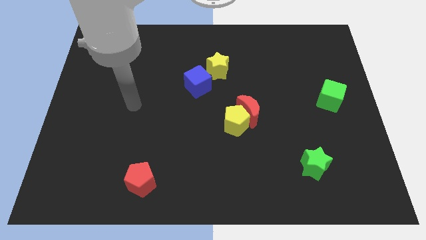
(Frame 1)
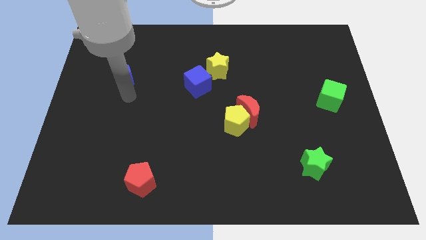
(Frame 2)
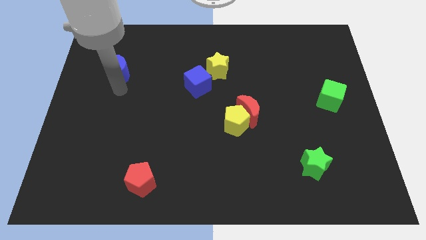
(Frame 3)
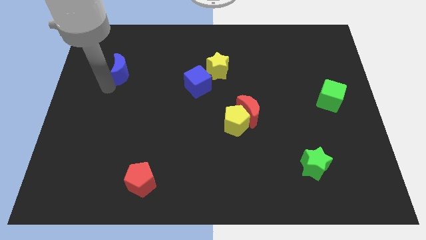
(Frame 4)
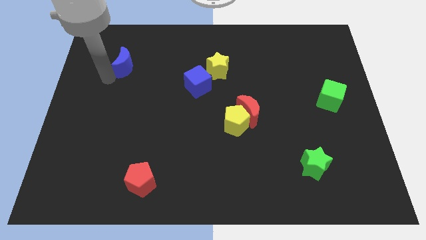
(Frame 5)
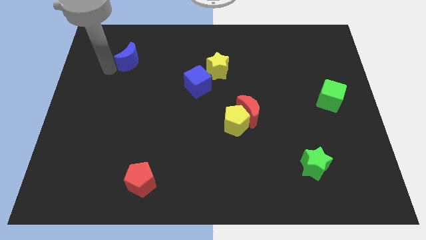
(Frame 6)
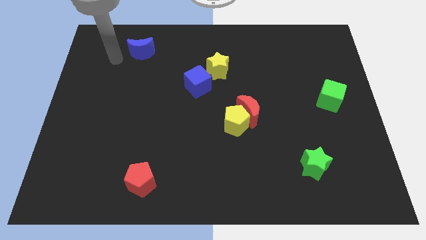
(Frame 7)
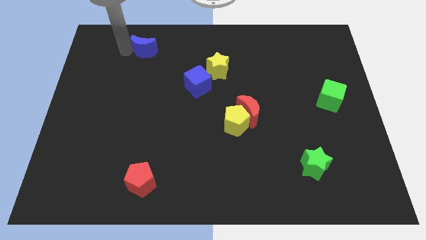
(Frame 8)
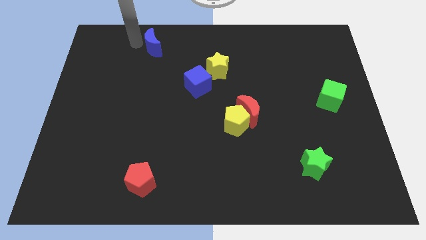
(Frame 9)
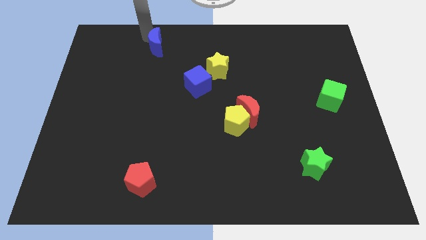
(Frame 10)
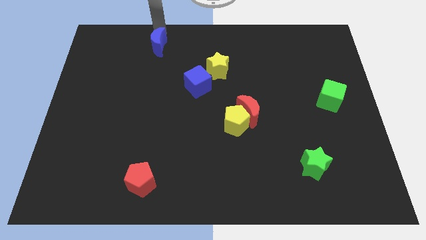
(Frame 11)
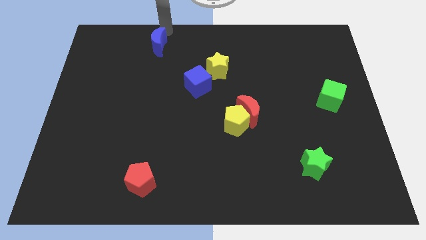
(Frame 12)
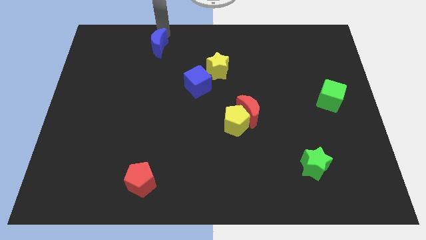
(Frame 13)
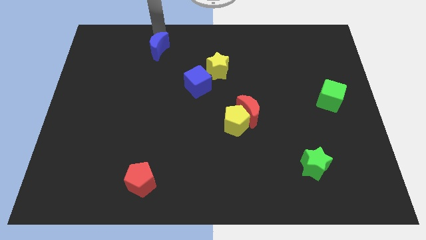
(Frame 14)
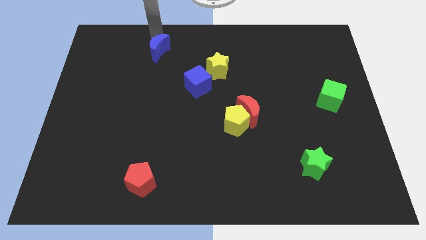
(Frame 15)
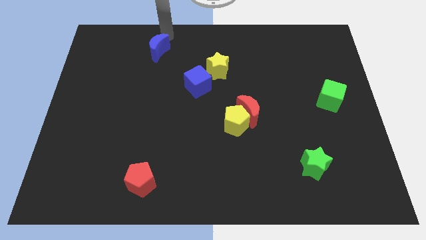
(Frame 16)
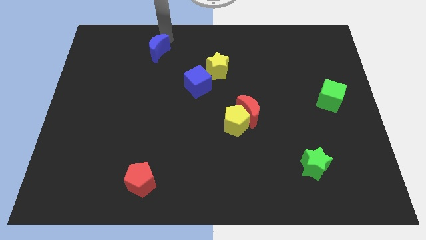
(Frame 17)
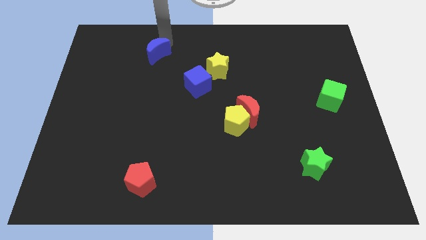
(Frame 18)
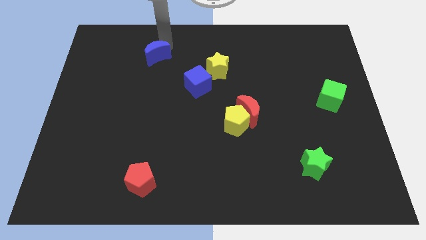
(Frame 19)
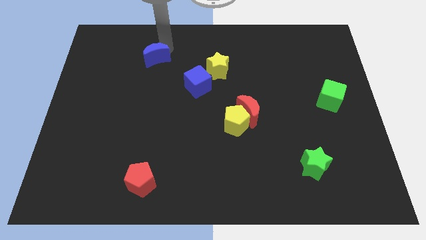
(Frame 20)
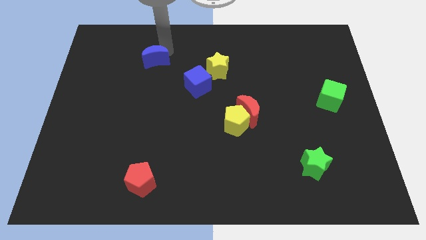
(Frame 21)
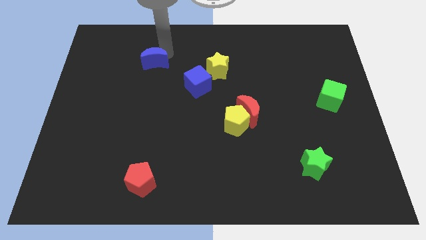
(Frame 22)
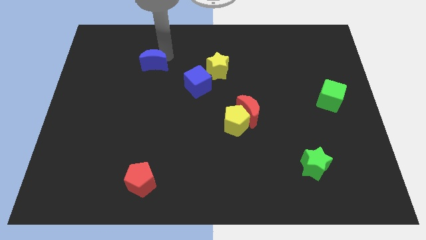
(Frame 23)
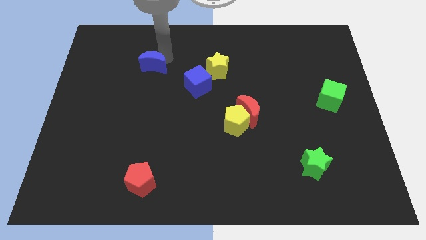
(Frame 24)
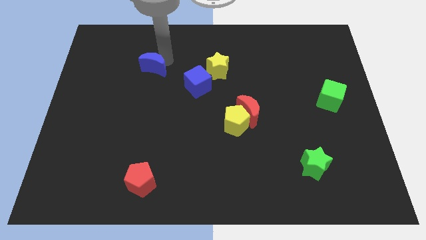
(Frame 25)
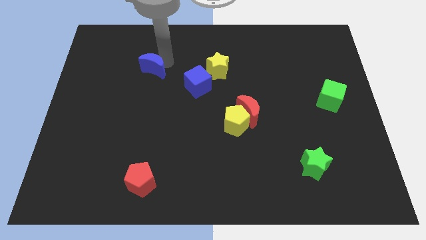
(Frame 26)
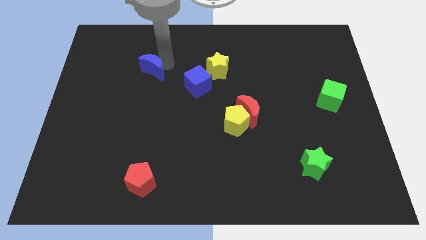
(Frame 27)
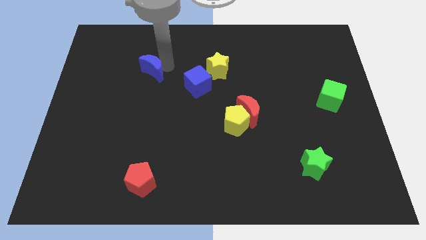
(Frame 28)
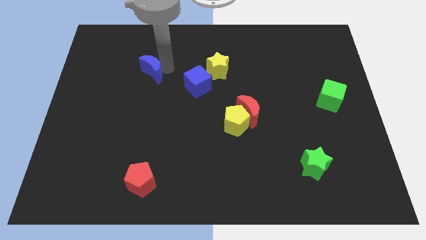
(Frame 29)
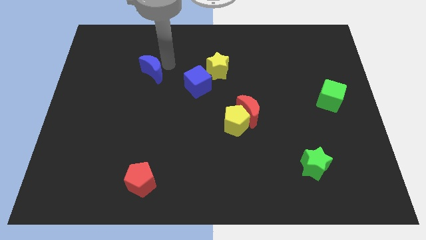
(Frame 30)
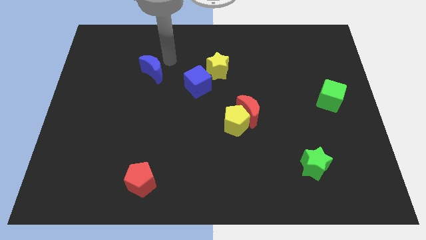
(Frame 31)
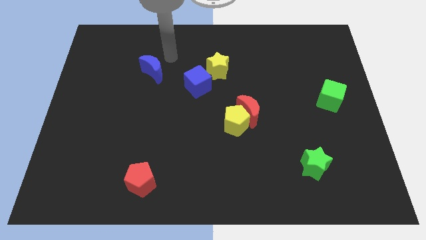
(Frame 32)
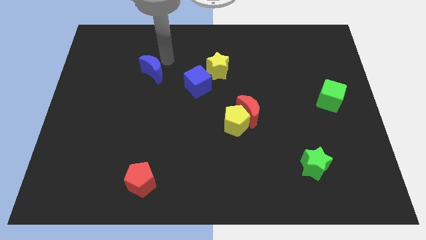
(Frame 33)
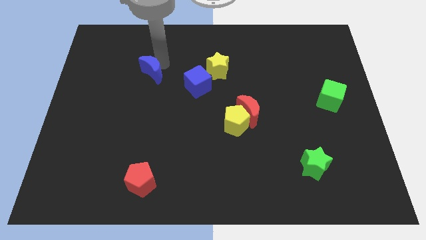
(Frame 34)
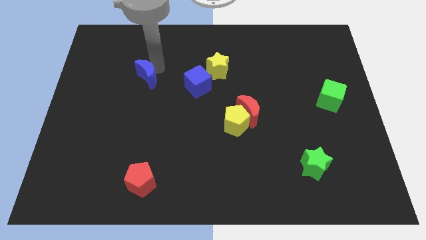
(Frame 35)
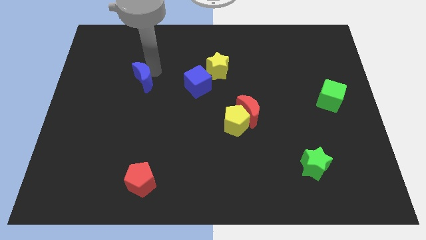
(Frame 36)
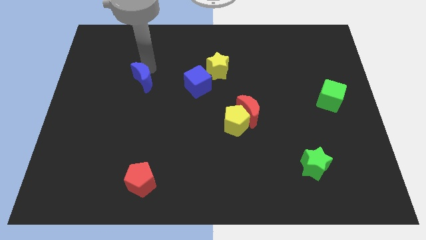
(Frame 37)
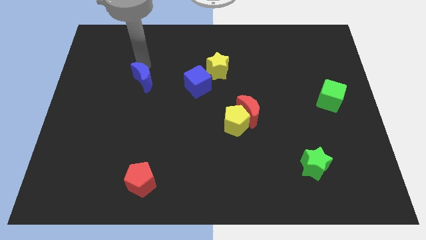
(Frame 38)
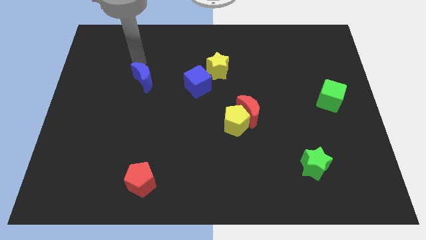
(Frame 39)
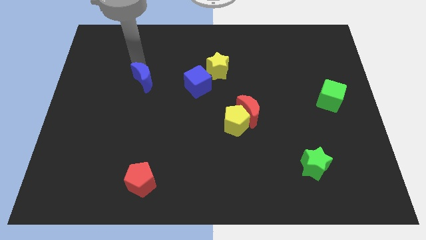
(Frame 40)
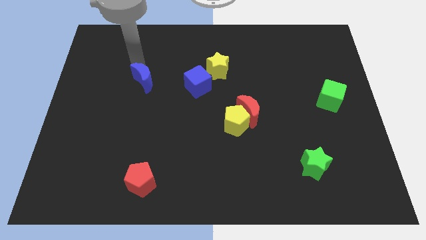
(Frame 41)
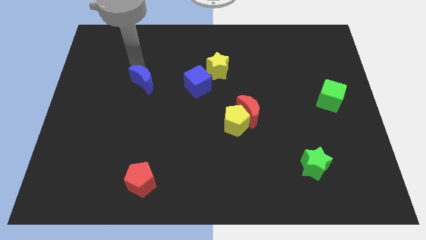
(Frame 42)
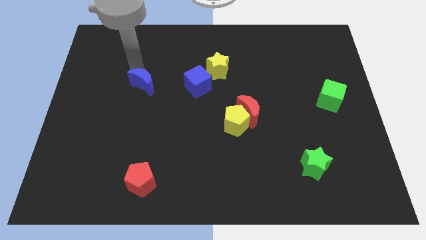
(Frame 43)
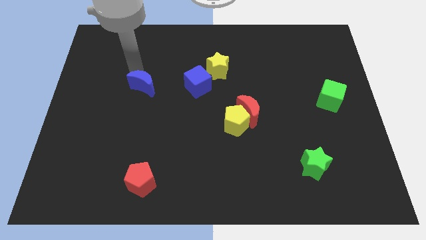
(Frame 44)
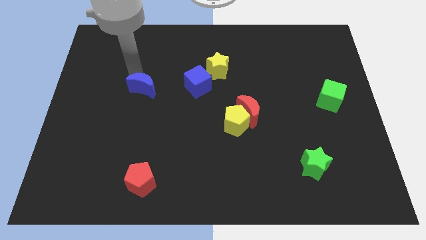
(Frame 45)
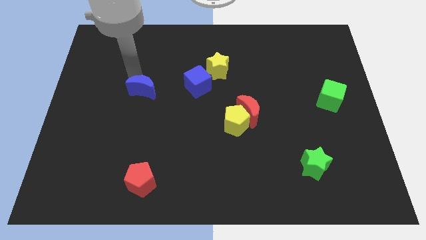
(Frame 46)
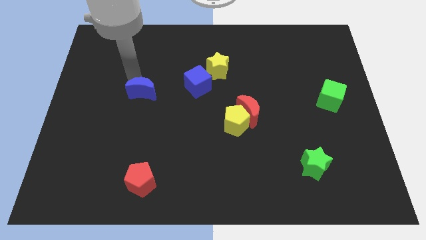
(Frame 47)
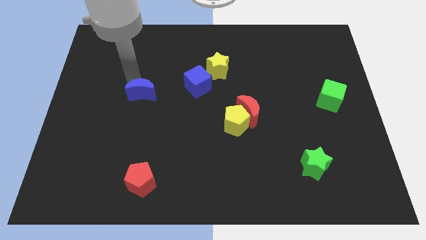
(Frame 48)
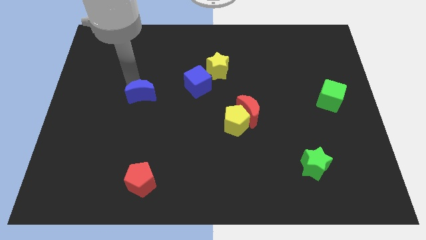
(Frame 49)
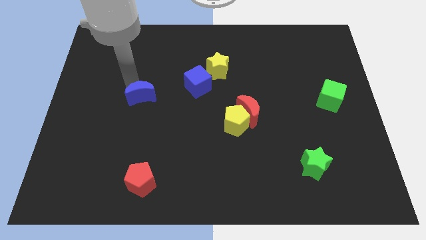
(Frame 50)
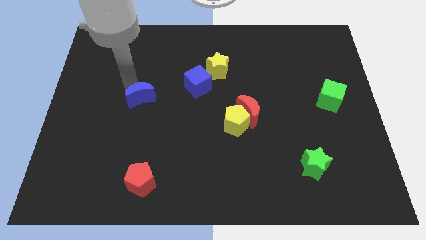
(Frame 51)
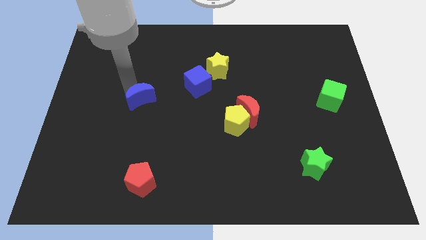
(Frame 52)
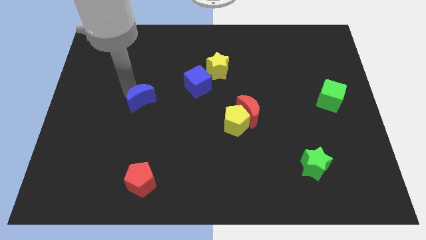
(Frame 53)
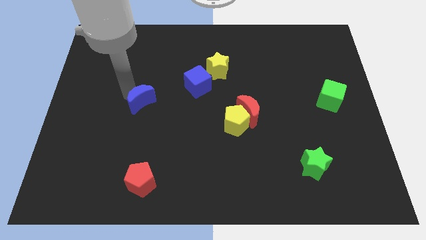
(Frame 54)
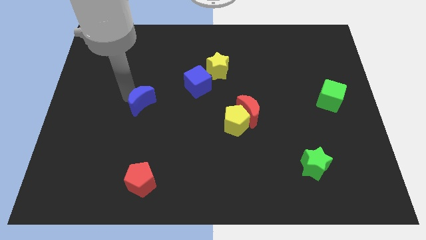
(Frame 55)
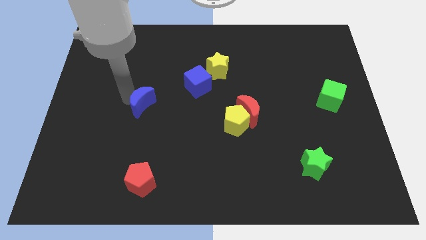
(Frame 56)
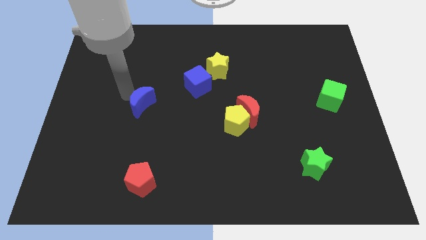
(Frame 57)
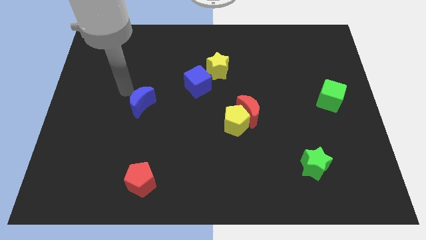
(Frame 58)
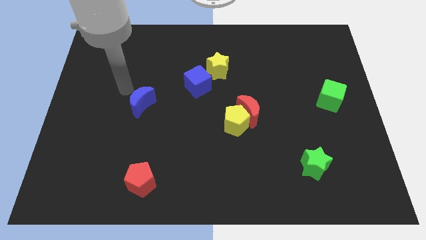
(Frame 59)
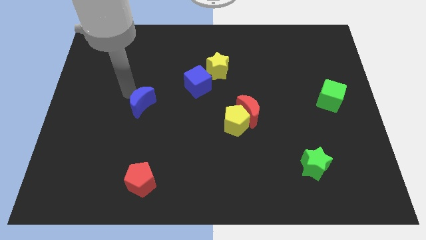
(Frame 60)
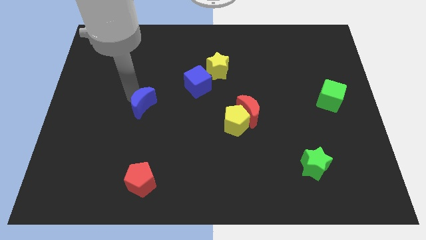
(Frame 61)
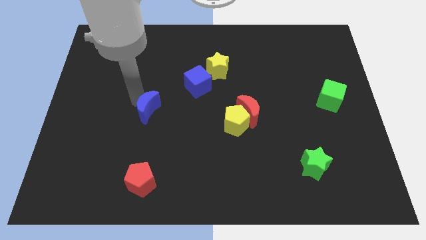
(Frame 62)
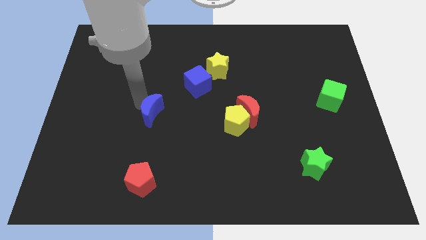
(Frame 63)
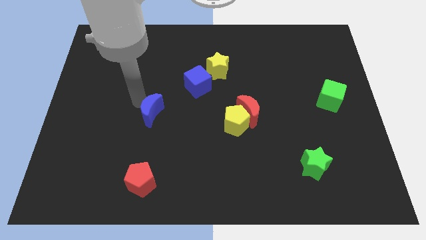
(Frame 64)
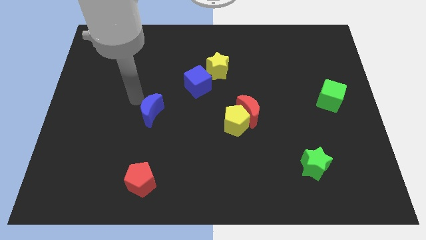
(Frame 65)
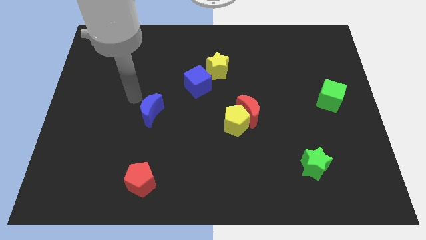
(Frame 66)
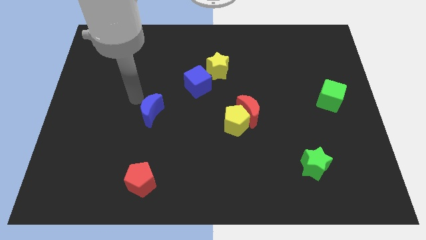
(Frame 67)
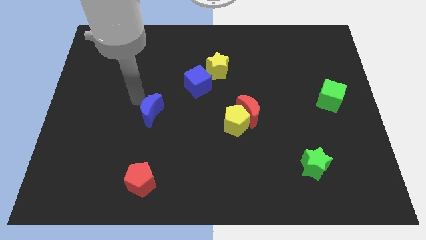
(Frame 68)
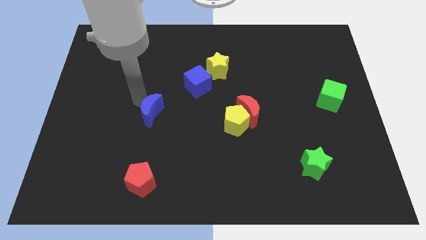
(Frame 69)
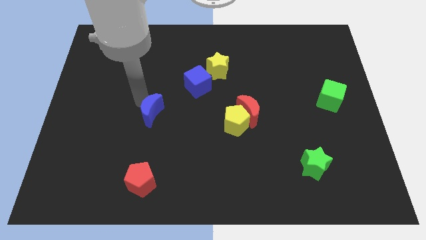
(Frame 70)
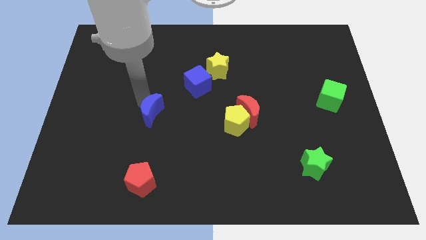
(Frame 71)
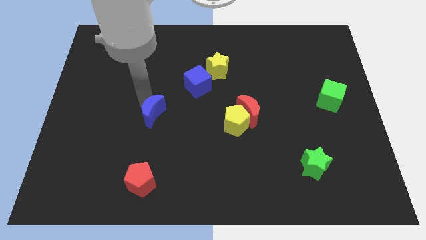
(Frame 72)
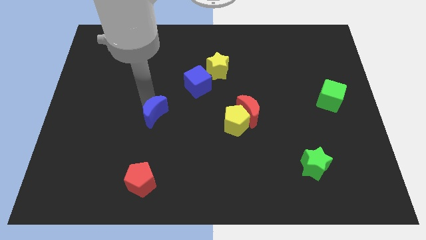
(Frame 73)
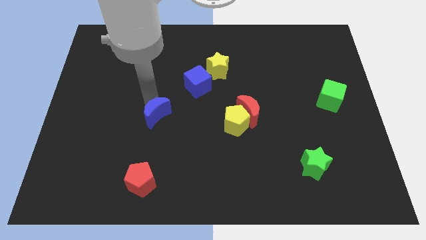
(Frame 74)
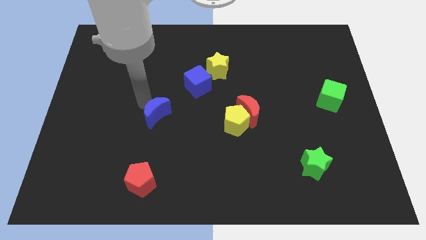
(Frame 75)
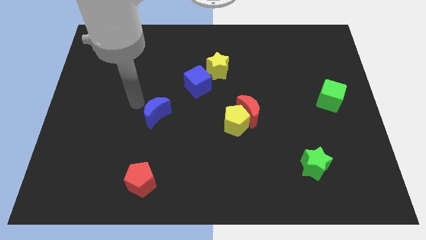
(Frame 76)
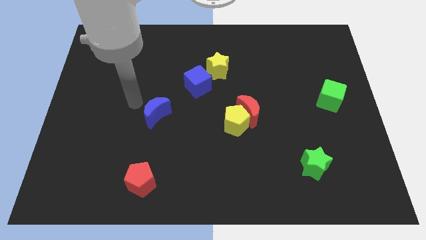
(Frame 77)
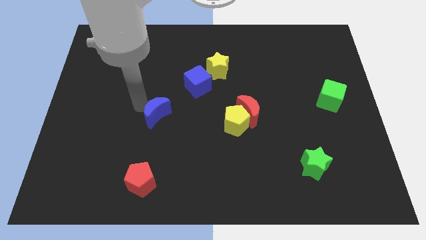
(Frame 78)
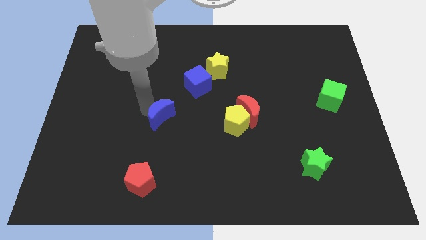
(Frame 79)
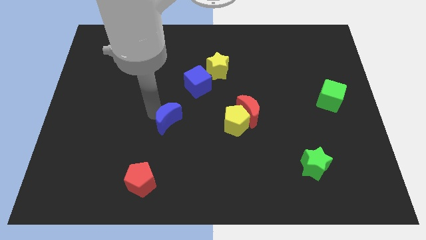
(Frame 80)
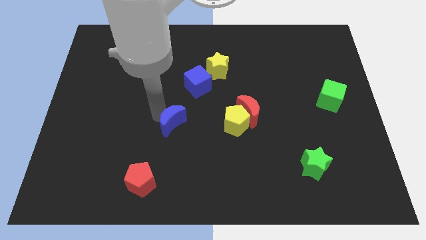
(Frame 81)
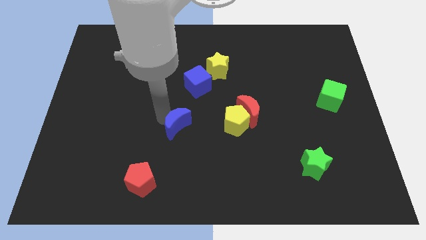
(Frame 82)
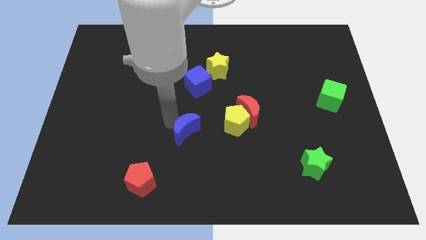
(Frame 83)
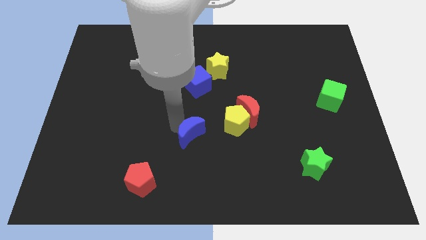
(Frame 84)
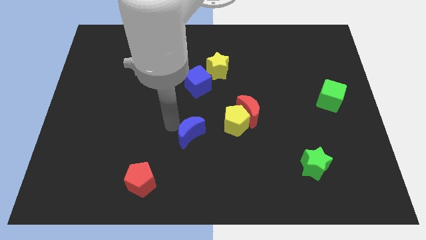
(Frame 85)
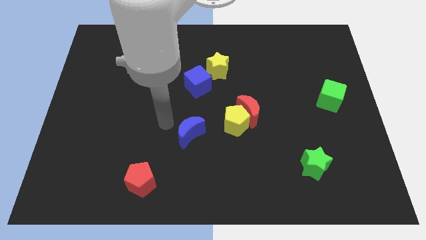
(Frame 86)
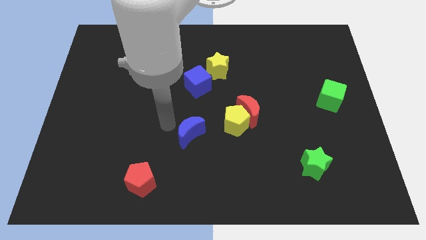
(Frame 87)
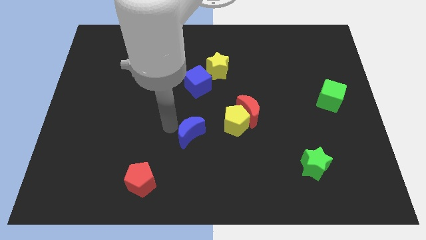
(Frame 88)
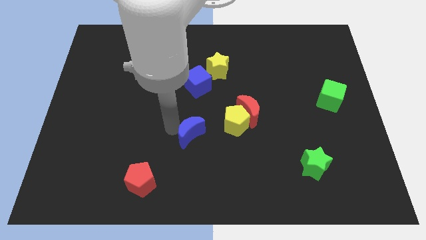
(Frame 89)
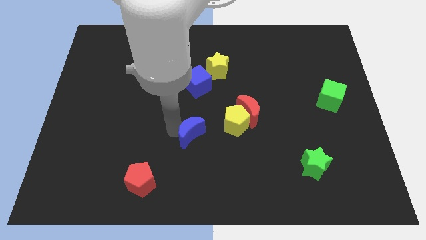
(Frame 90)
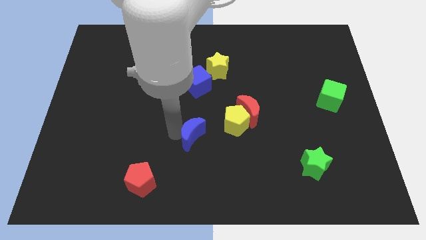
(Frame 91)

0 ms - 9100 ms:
slide the blue moon to the bottom left side of the yellow pentagon
